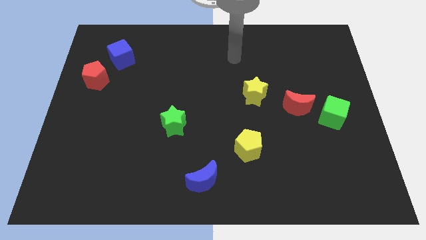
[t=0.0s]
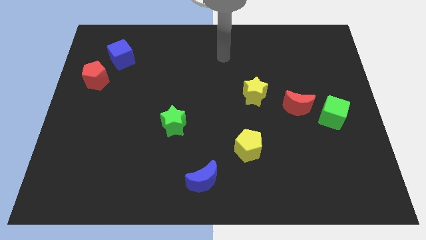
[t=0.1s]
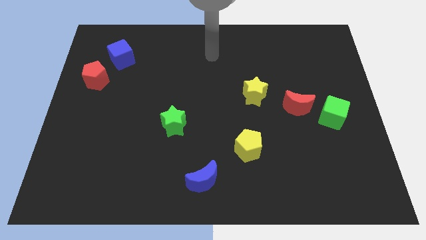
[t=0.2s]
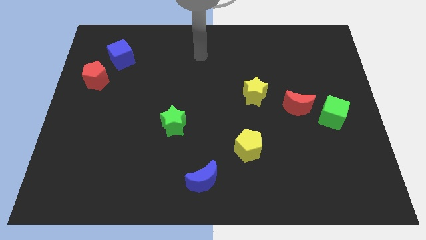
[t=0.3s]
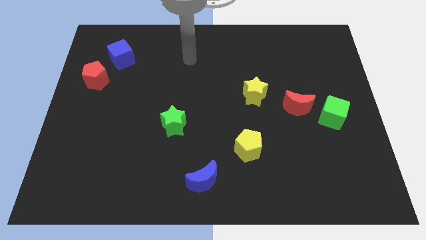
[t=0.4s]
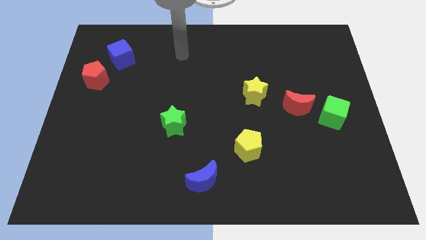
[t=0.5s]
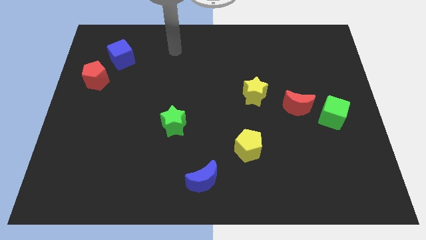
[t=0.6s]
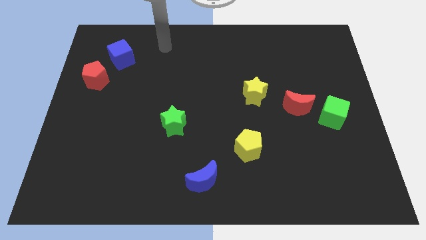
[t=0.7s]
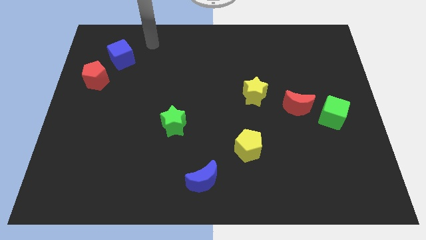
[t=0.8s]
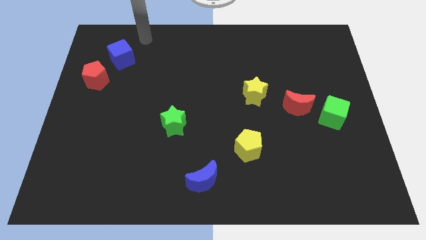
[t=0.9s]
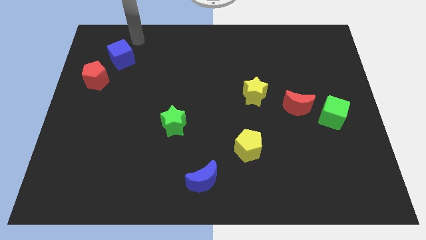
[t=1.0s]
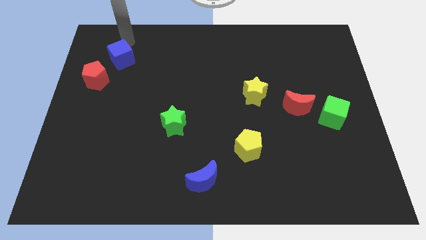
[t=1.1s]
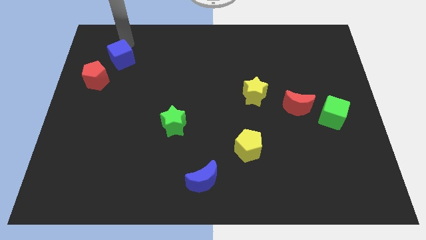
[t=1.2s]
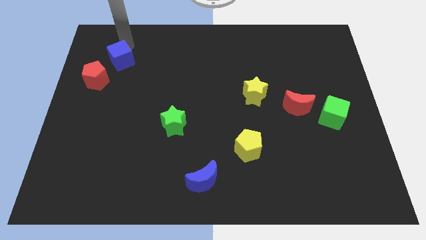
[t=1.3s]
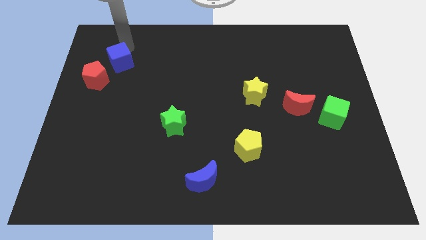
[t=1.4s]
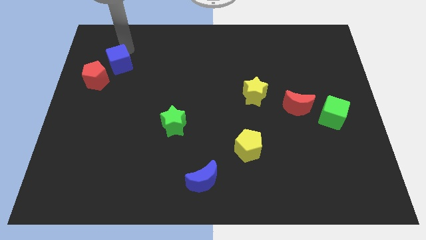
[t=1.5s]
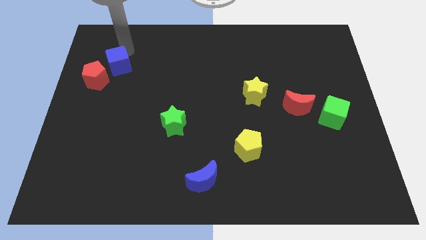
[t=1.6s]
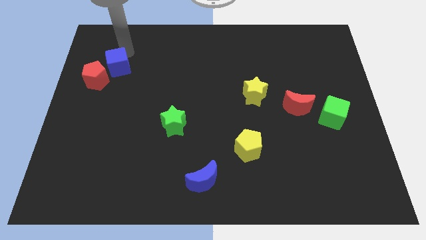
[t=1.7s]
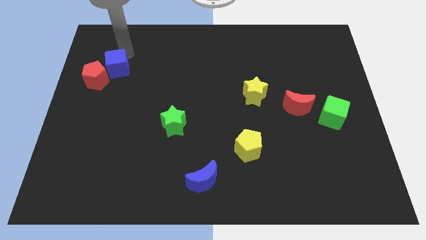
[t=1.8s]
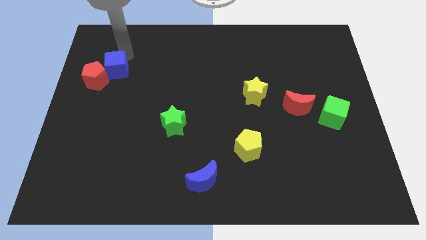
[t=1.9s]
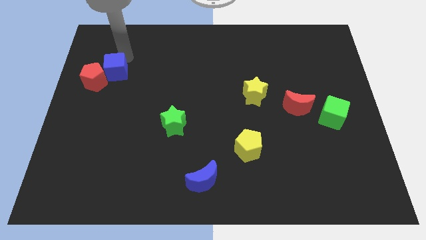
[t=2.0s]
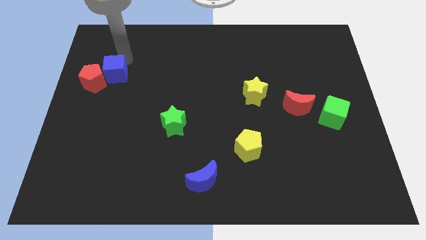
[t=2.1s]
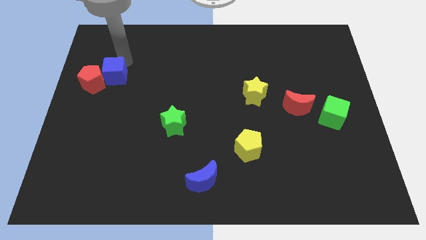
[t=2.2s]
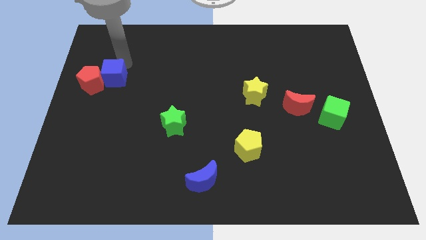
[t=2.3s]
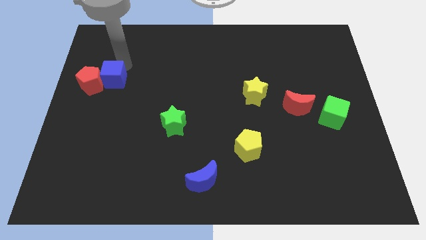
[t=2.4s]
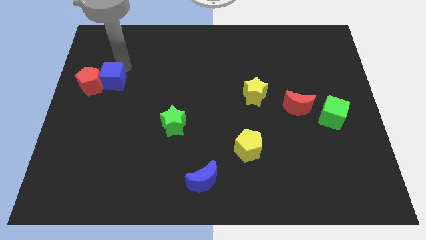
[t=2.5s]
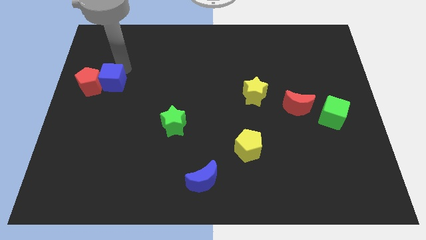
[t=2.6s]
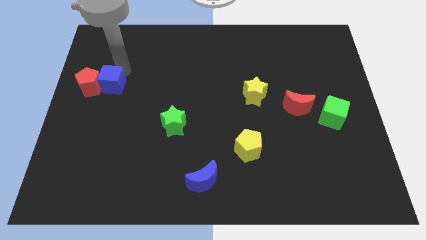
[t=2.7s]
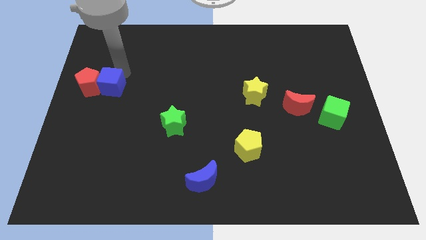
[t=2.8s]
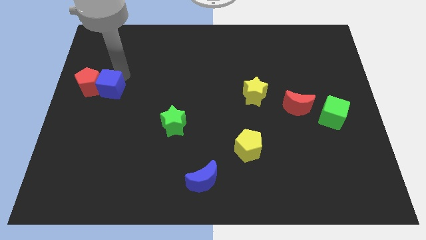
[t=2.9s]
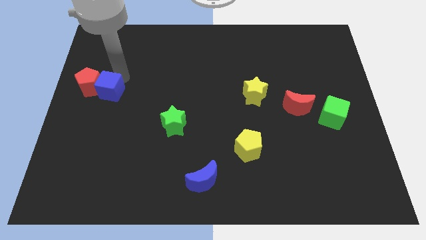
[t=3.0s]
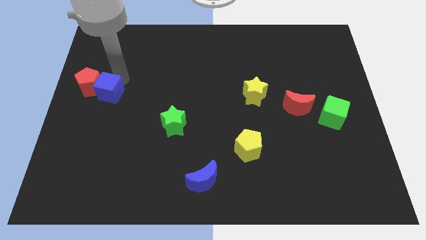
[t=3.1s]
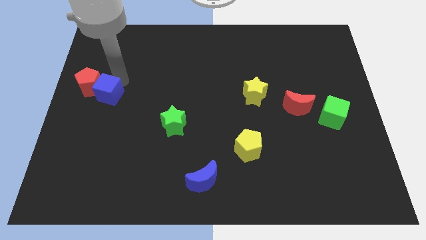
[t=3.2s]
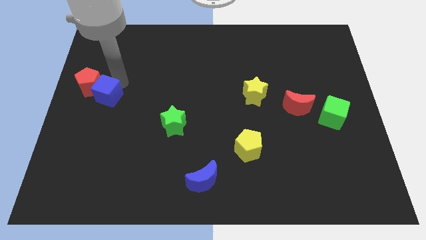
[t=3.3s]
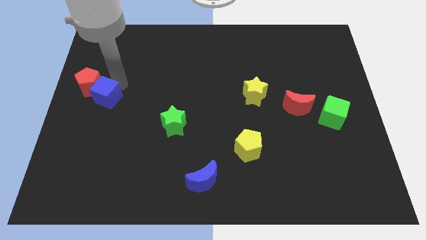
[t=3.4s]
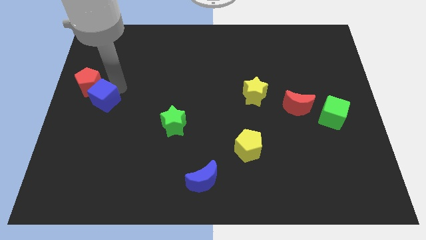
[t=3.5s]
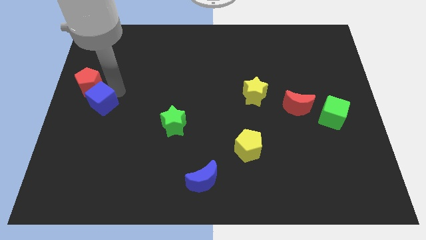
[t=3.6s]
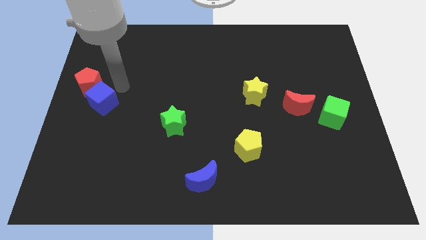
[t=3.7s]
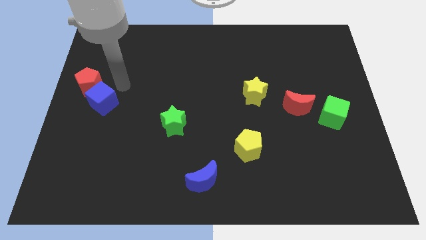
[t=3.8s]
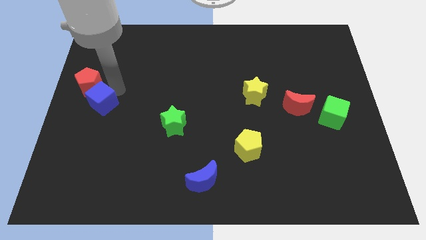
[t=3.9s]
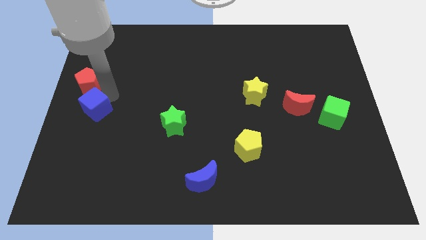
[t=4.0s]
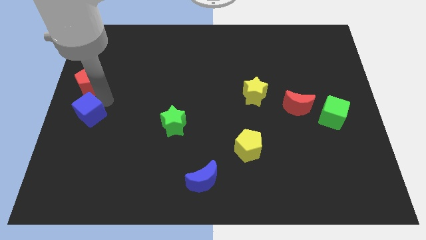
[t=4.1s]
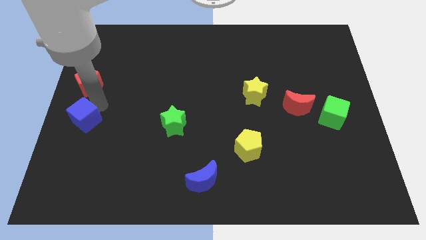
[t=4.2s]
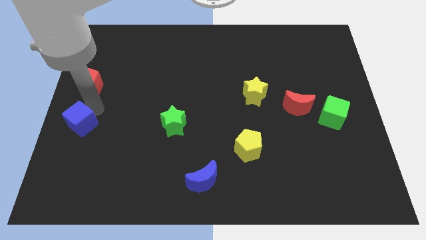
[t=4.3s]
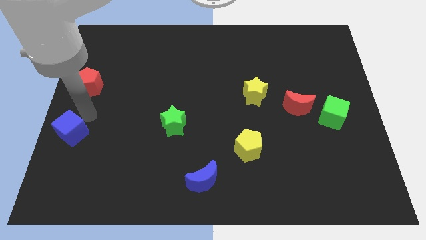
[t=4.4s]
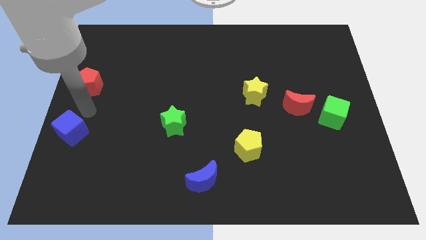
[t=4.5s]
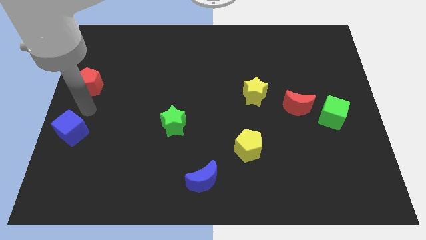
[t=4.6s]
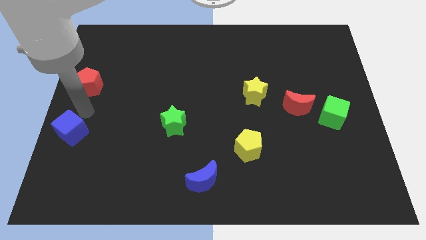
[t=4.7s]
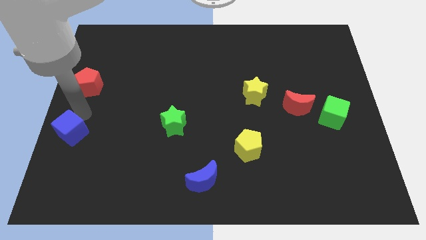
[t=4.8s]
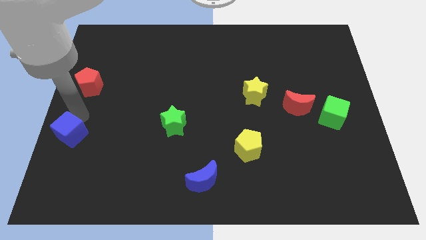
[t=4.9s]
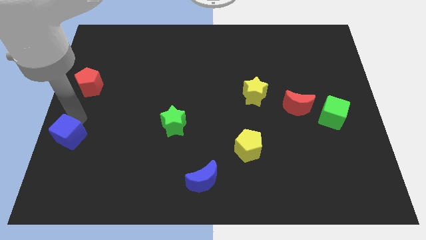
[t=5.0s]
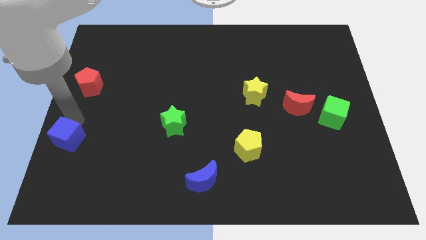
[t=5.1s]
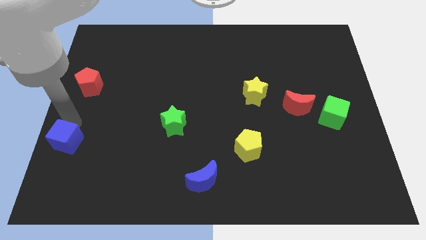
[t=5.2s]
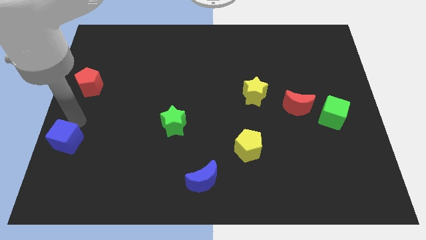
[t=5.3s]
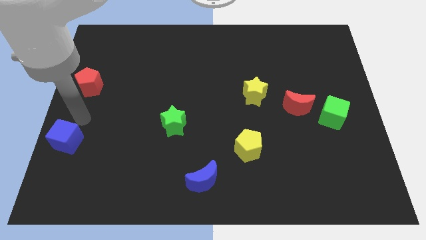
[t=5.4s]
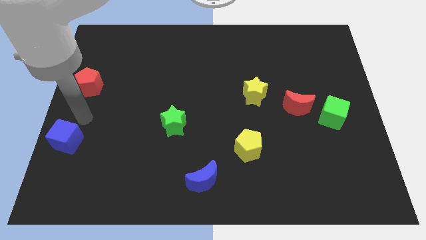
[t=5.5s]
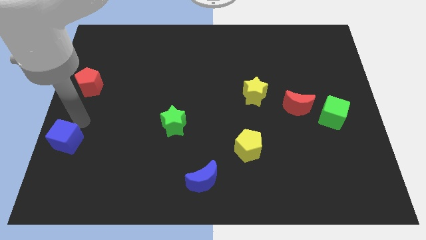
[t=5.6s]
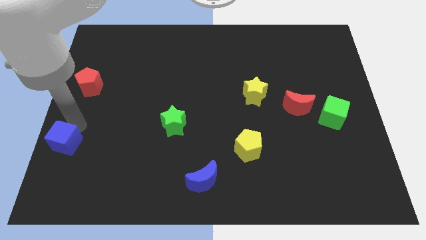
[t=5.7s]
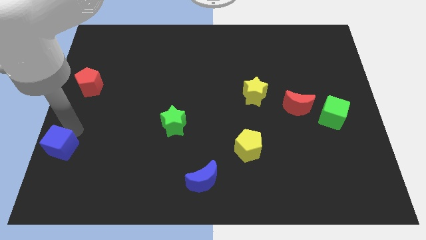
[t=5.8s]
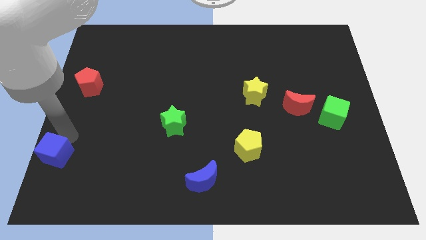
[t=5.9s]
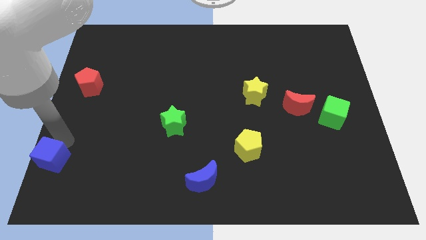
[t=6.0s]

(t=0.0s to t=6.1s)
put the blue cube to the bottom left
